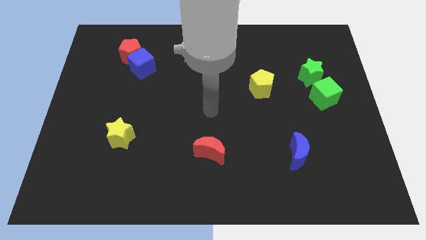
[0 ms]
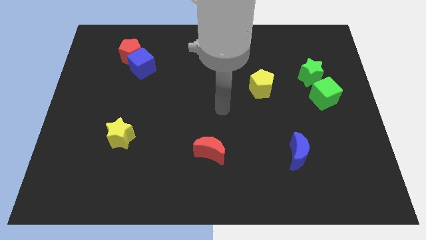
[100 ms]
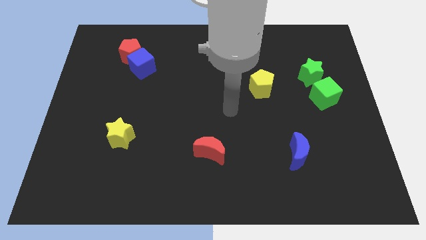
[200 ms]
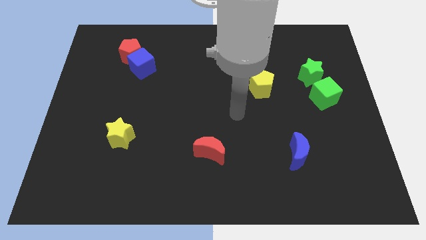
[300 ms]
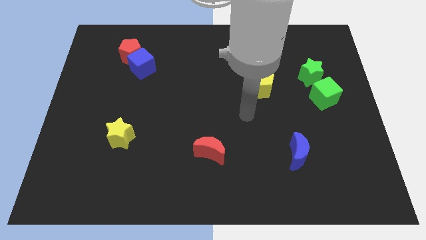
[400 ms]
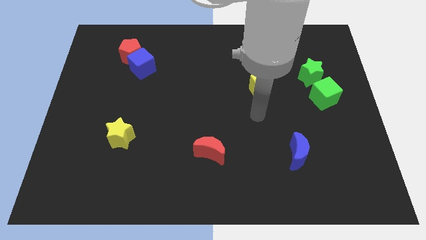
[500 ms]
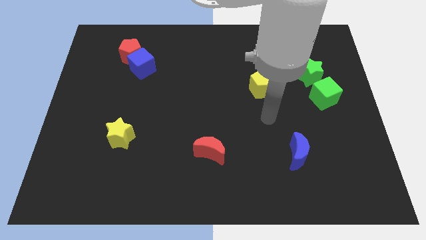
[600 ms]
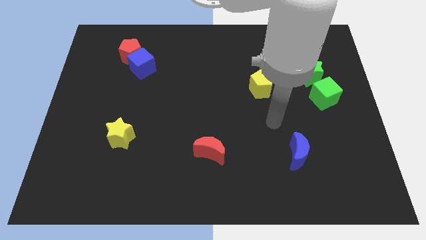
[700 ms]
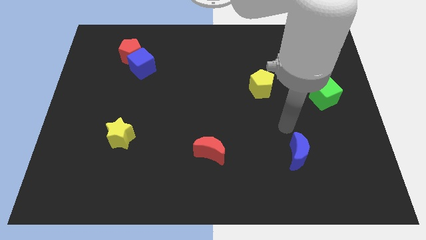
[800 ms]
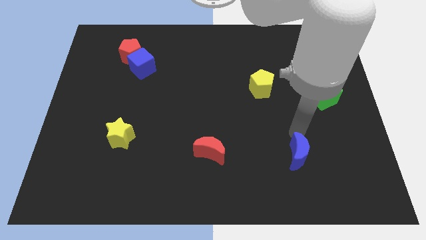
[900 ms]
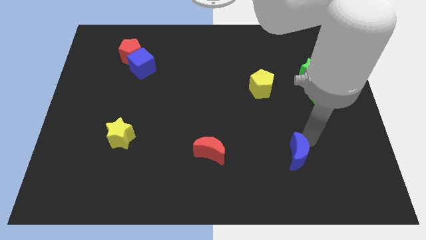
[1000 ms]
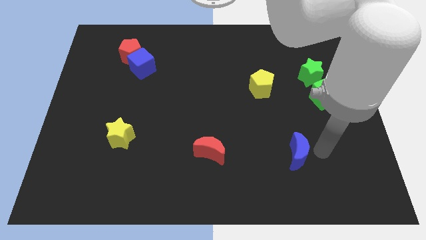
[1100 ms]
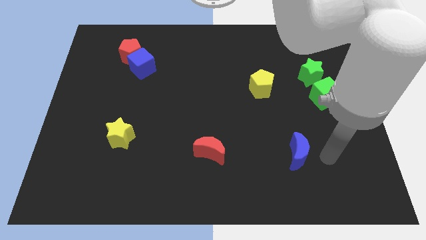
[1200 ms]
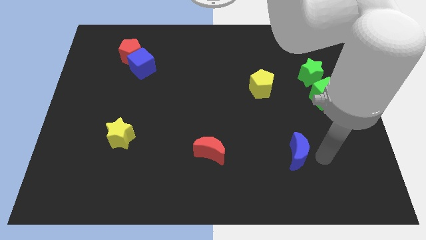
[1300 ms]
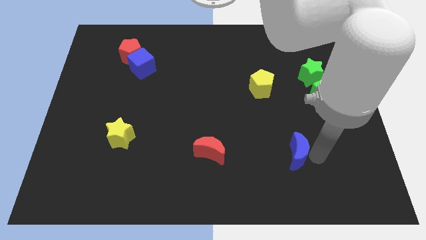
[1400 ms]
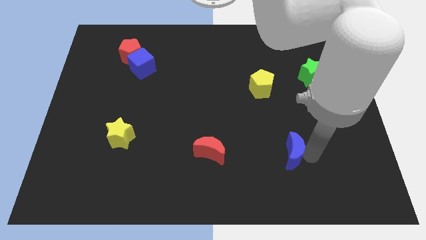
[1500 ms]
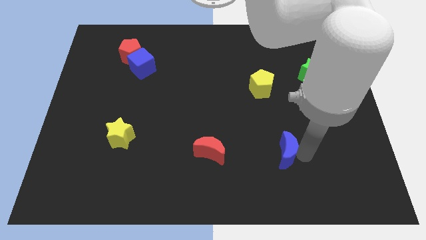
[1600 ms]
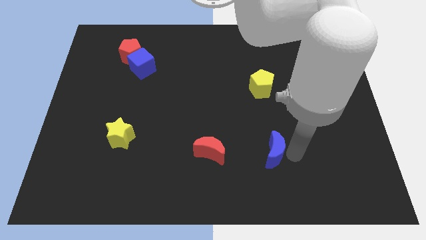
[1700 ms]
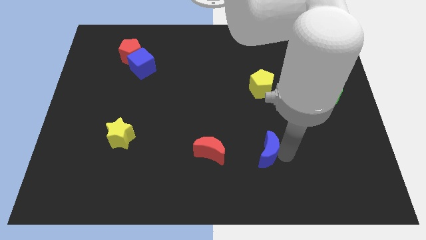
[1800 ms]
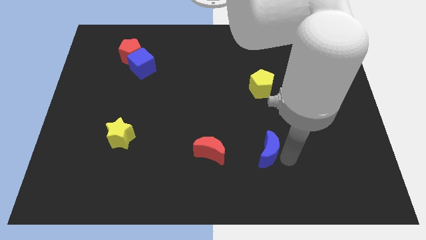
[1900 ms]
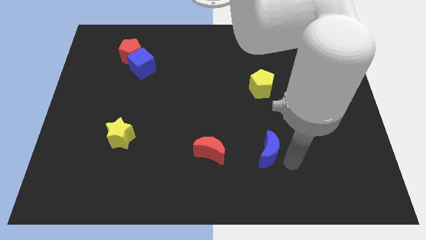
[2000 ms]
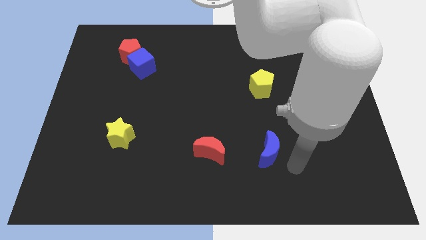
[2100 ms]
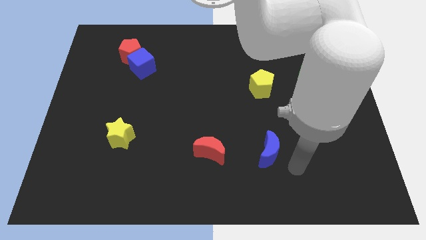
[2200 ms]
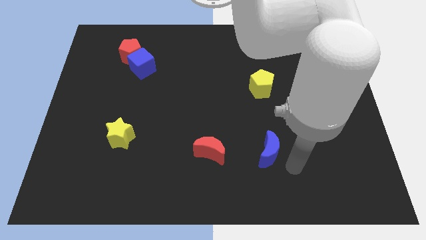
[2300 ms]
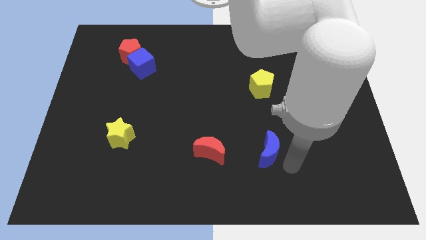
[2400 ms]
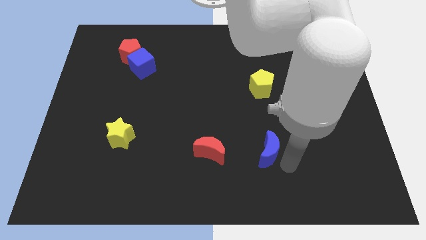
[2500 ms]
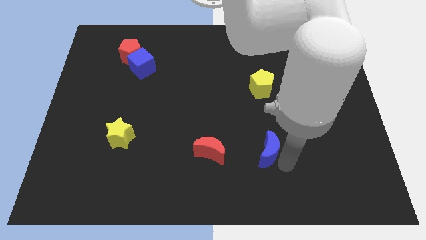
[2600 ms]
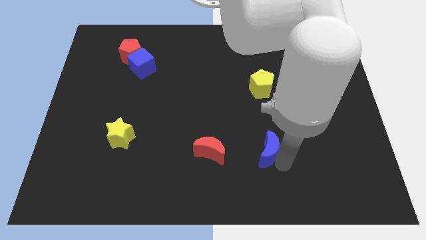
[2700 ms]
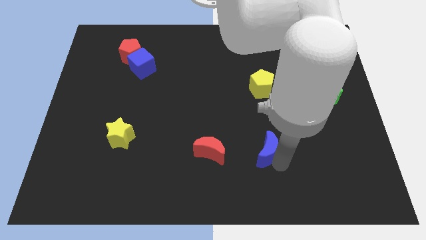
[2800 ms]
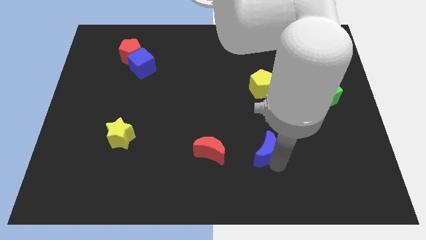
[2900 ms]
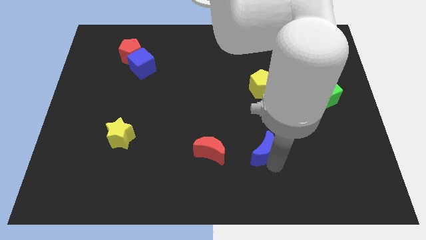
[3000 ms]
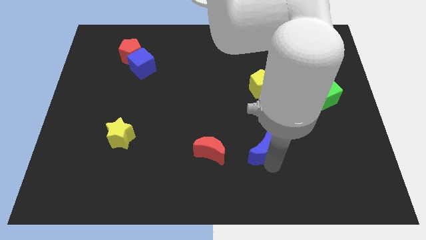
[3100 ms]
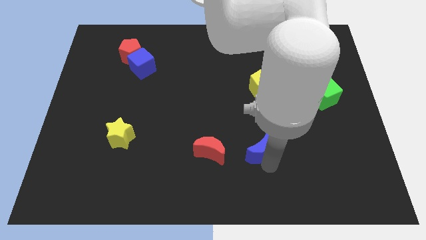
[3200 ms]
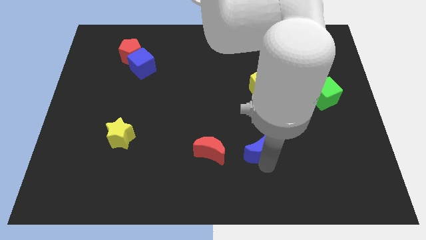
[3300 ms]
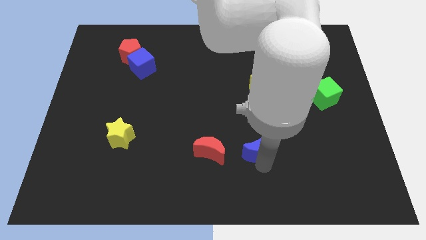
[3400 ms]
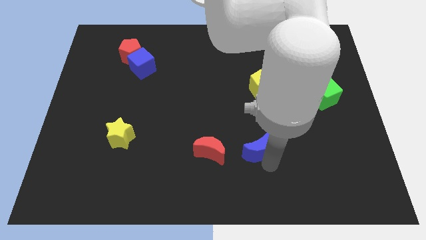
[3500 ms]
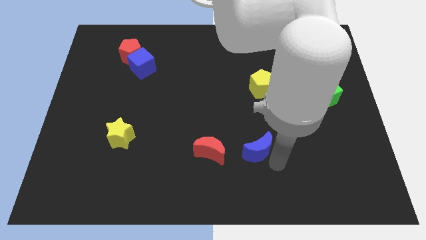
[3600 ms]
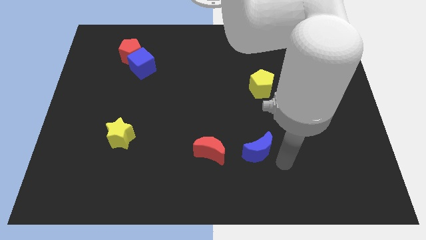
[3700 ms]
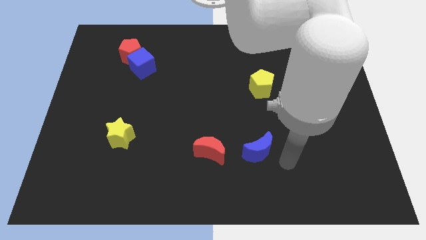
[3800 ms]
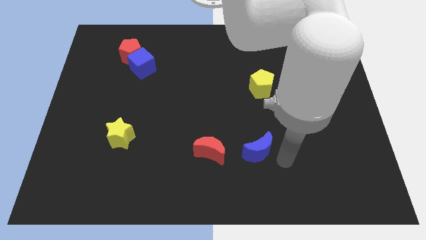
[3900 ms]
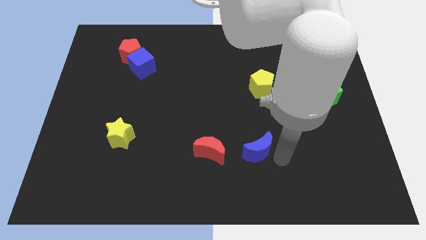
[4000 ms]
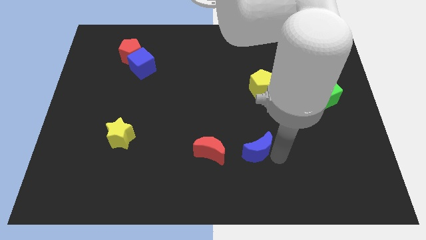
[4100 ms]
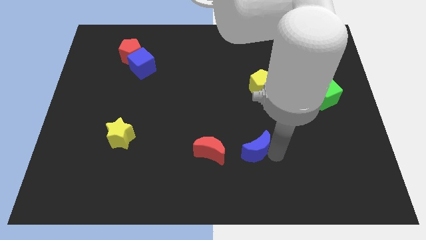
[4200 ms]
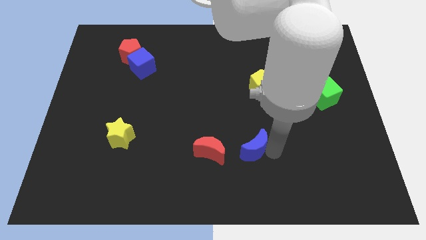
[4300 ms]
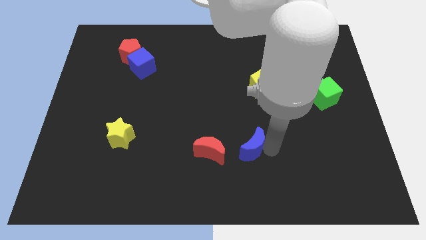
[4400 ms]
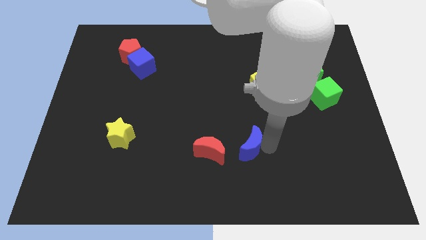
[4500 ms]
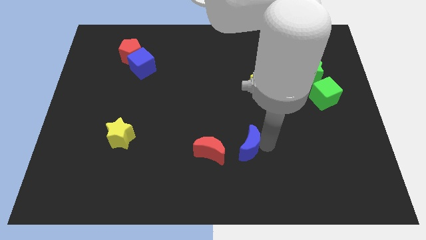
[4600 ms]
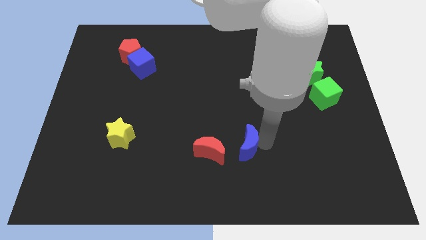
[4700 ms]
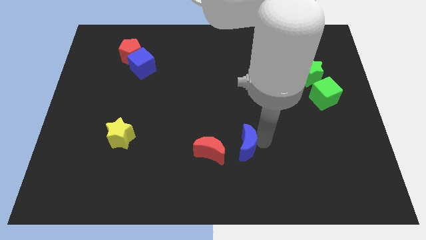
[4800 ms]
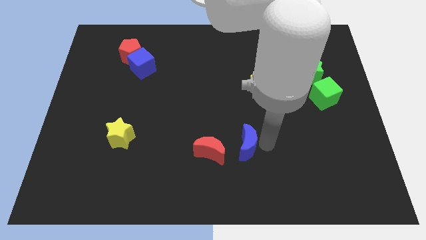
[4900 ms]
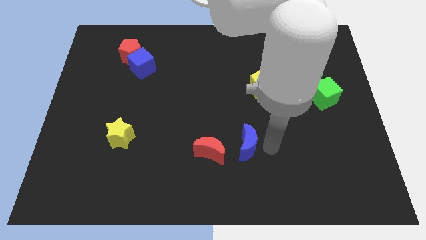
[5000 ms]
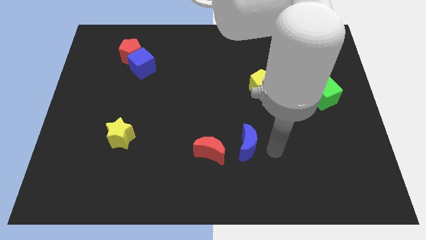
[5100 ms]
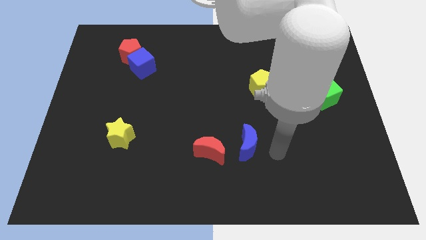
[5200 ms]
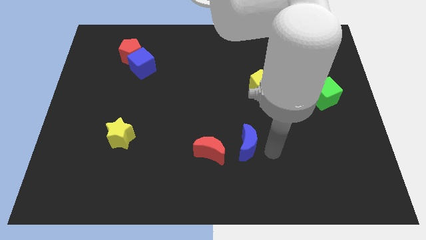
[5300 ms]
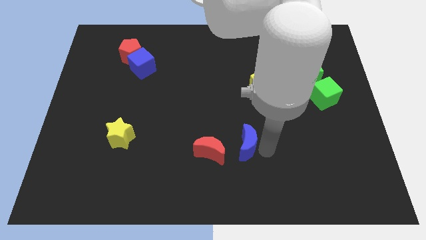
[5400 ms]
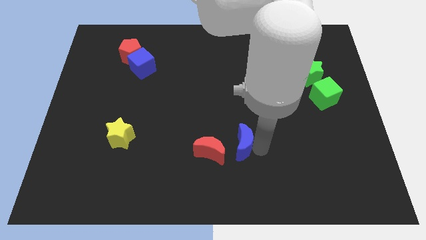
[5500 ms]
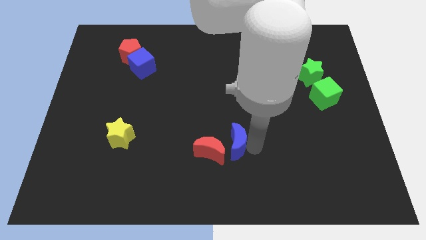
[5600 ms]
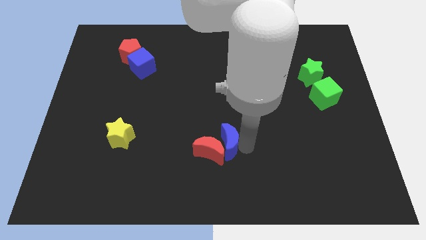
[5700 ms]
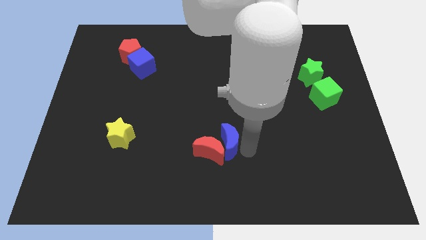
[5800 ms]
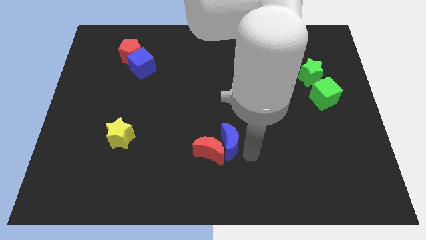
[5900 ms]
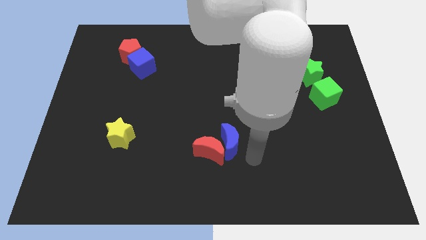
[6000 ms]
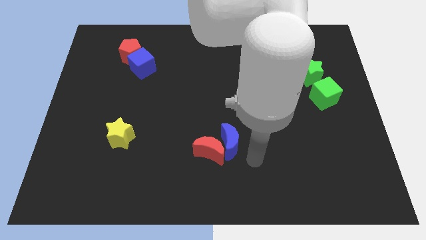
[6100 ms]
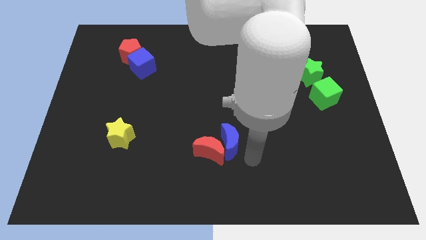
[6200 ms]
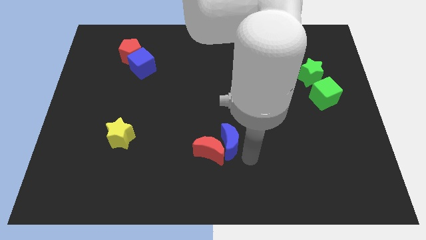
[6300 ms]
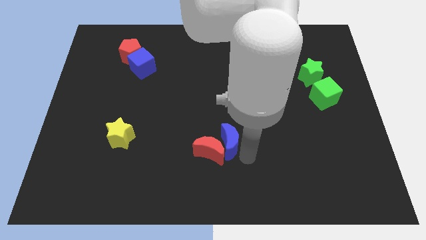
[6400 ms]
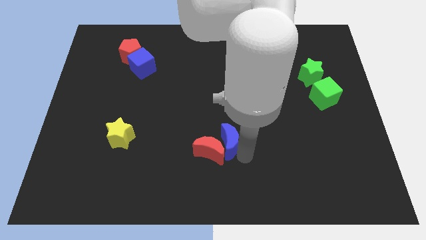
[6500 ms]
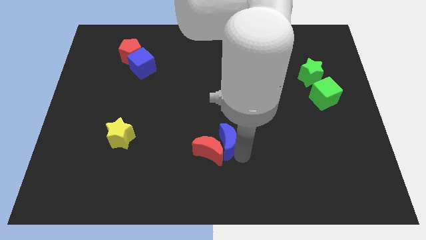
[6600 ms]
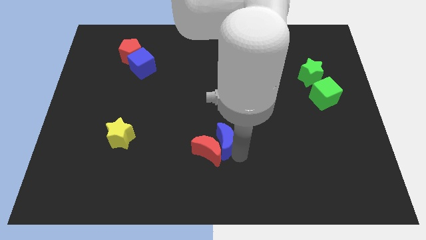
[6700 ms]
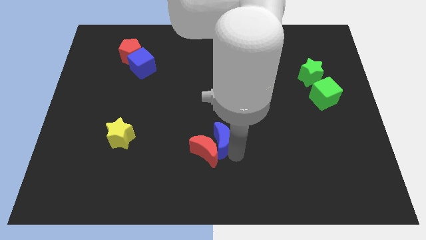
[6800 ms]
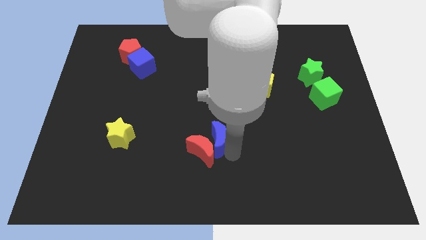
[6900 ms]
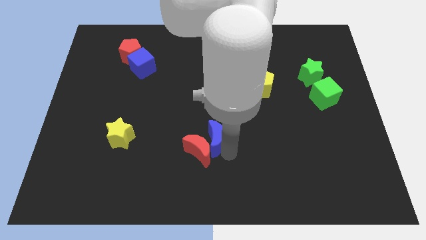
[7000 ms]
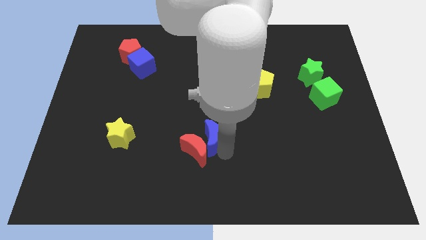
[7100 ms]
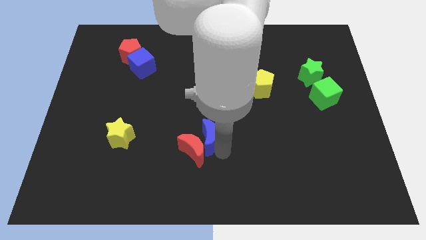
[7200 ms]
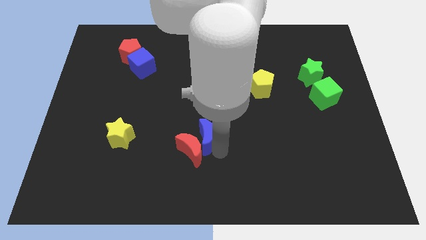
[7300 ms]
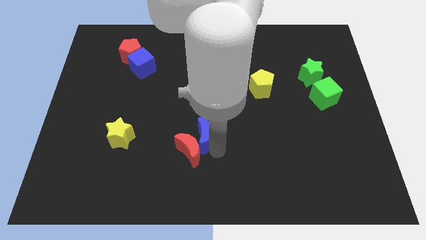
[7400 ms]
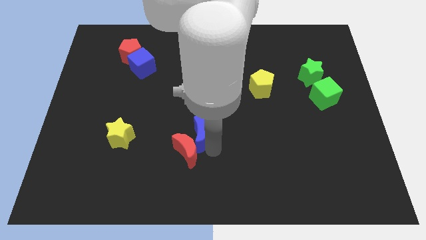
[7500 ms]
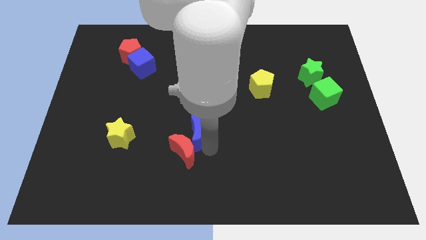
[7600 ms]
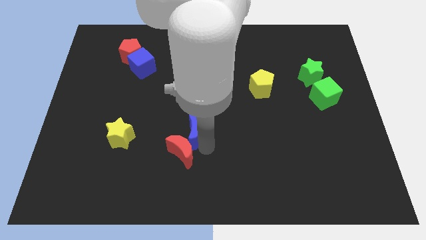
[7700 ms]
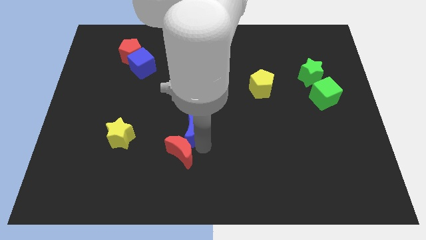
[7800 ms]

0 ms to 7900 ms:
move the blue moon right of the yellow star
